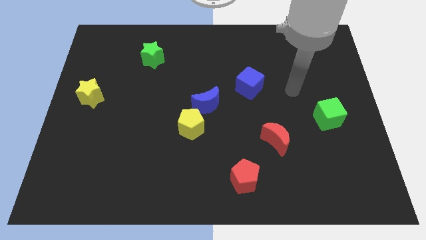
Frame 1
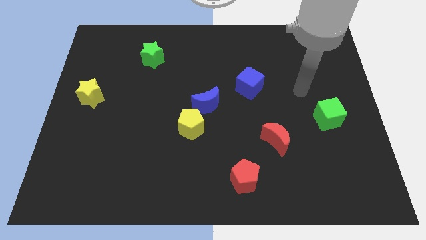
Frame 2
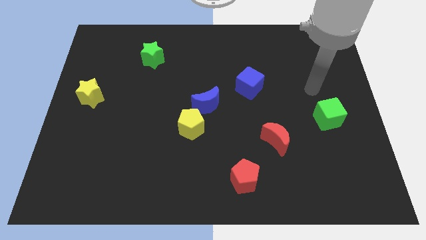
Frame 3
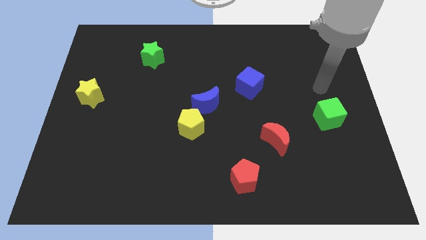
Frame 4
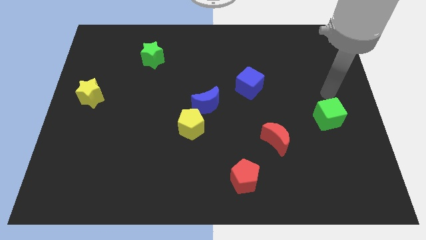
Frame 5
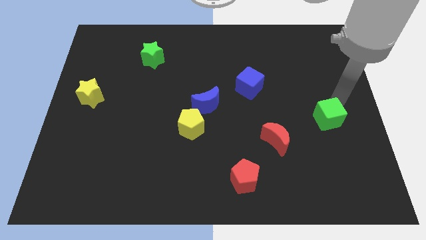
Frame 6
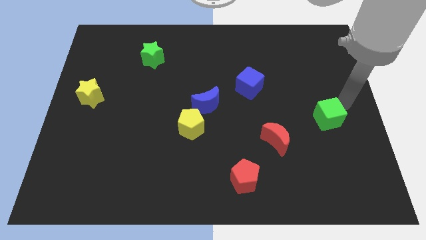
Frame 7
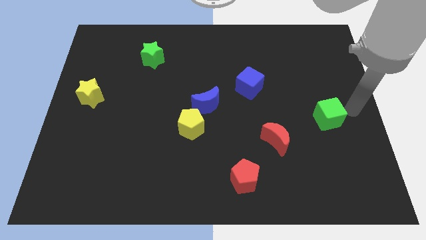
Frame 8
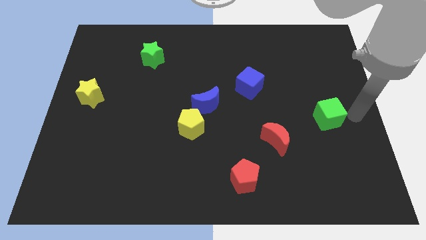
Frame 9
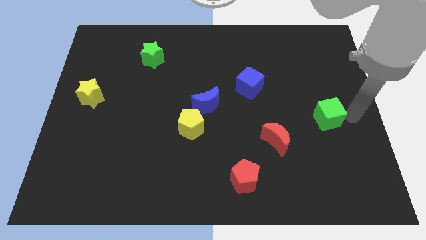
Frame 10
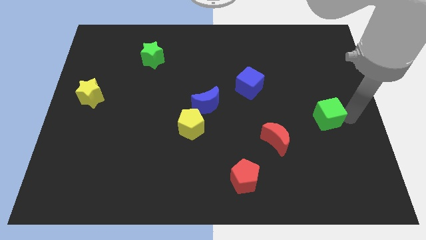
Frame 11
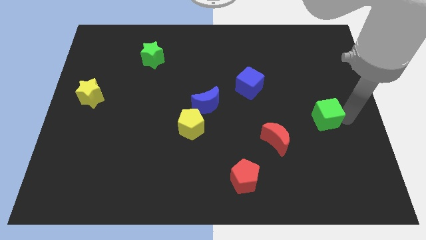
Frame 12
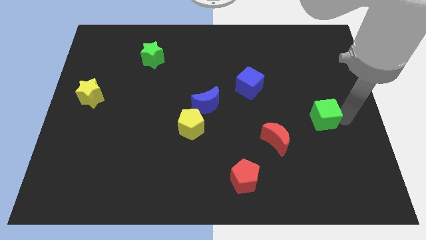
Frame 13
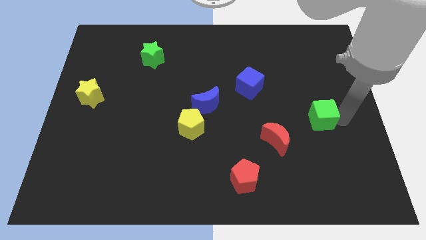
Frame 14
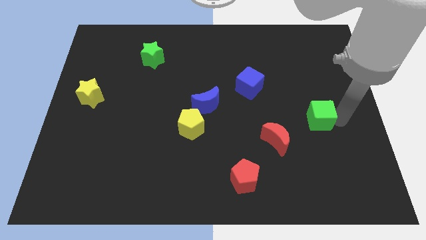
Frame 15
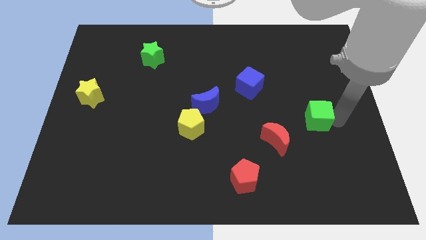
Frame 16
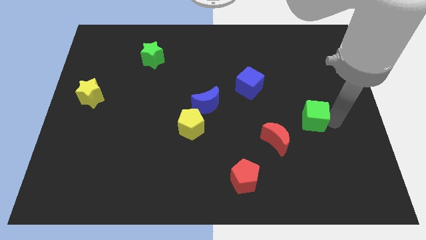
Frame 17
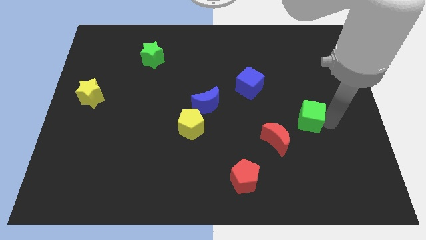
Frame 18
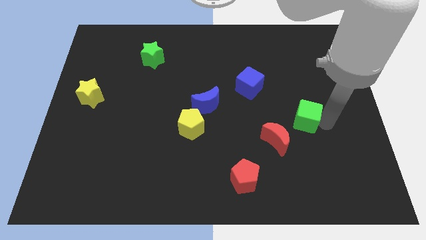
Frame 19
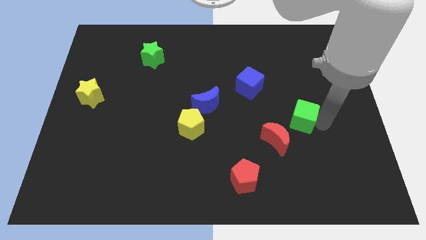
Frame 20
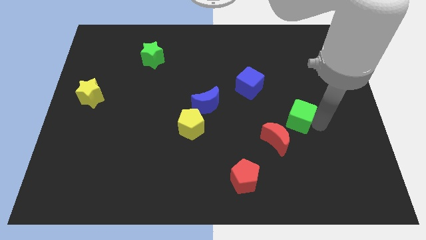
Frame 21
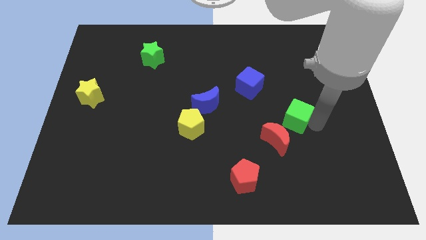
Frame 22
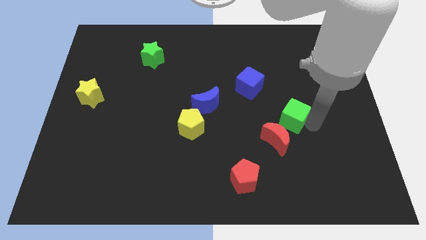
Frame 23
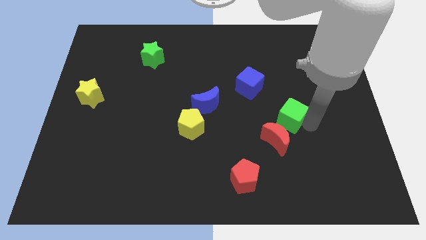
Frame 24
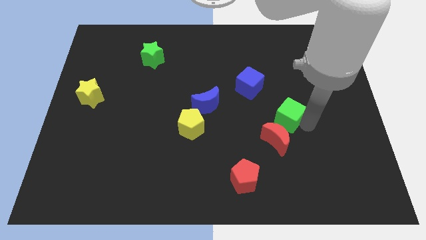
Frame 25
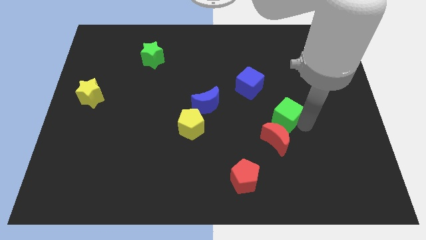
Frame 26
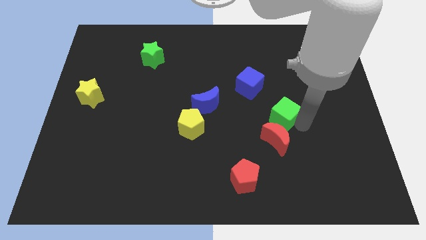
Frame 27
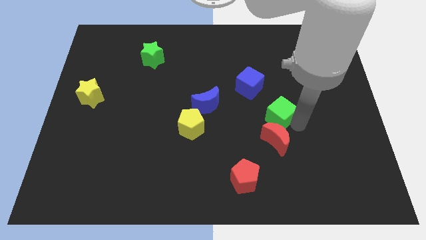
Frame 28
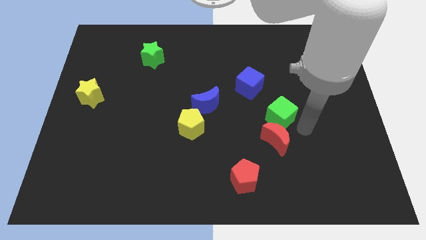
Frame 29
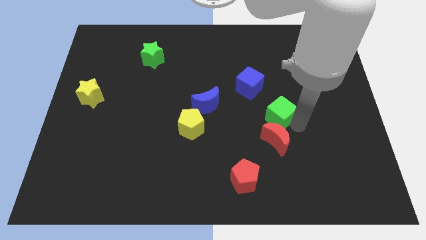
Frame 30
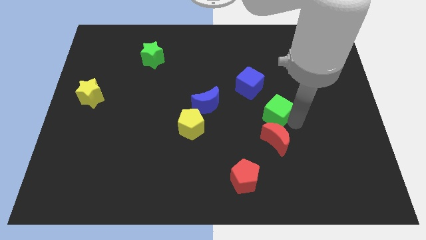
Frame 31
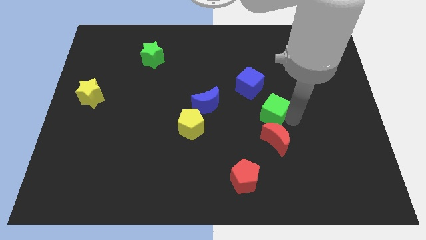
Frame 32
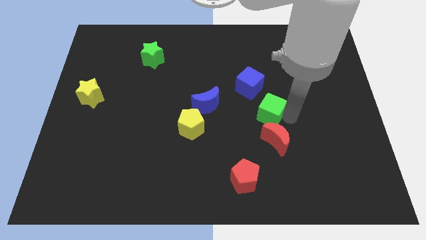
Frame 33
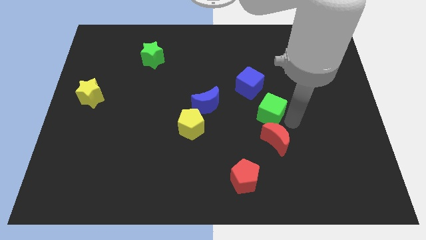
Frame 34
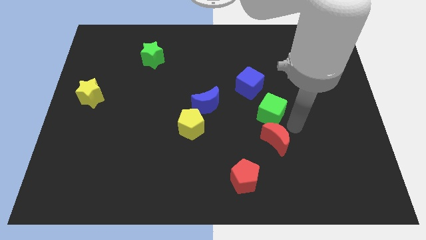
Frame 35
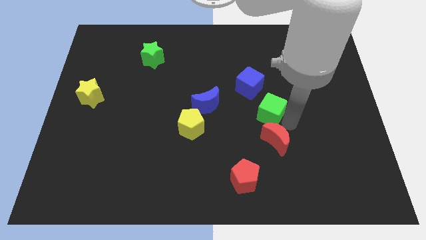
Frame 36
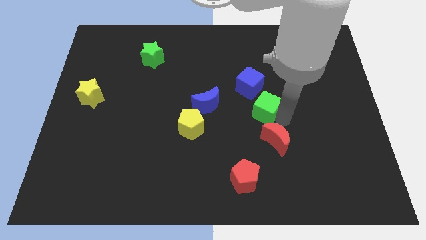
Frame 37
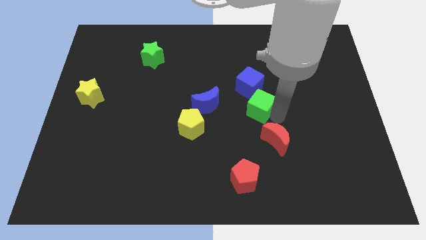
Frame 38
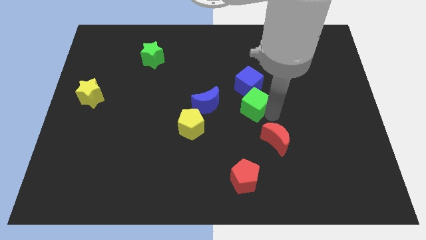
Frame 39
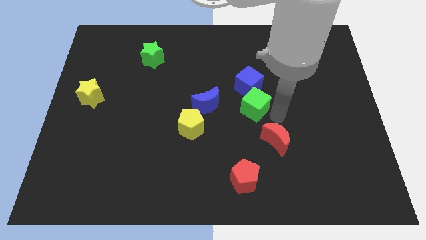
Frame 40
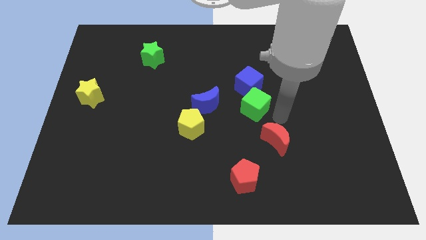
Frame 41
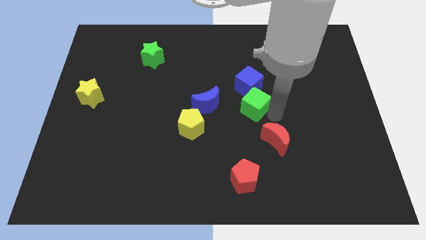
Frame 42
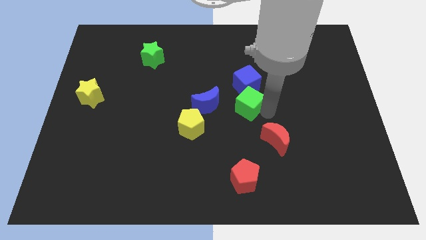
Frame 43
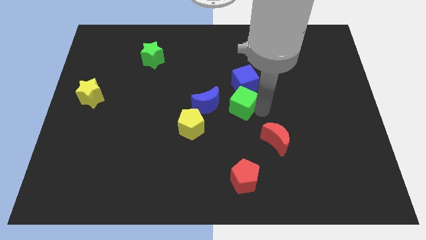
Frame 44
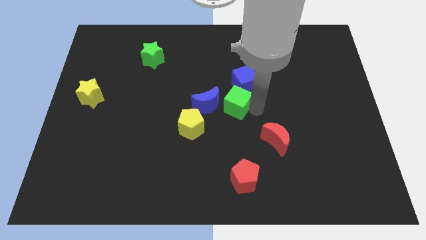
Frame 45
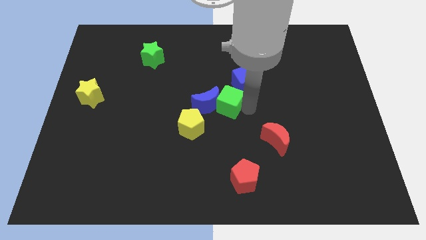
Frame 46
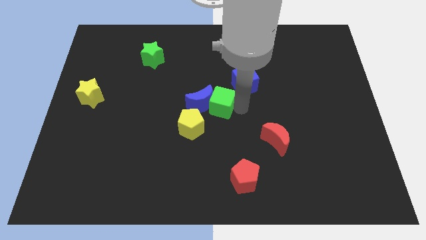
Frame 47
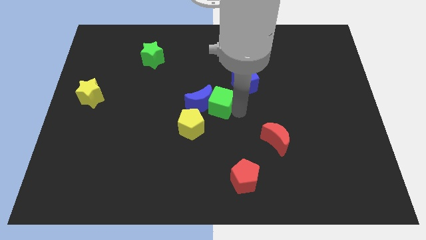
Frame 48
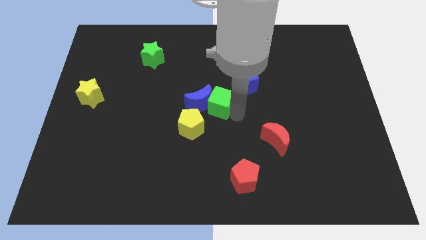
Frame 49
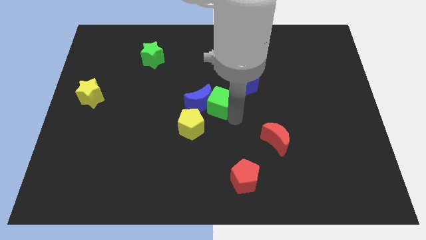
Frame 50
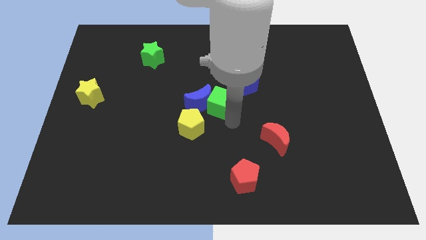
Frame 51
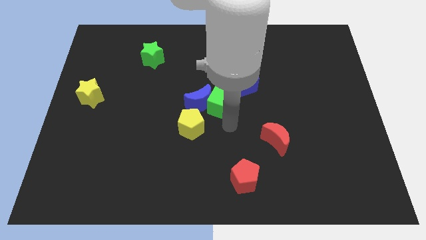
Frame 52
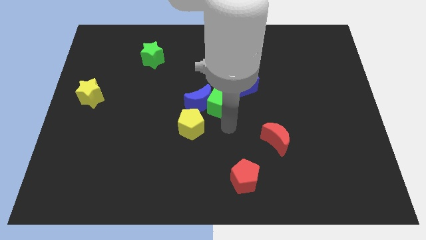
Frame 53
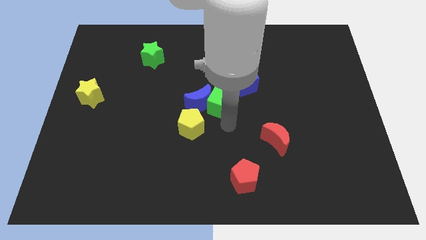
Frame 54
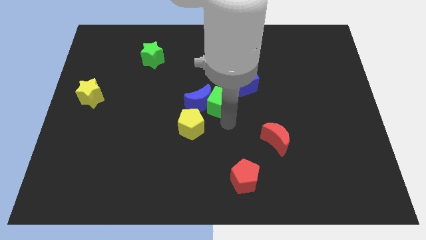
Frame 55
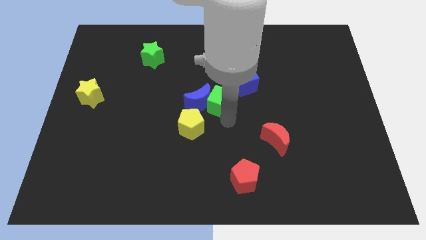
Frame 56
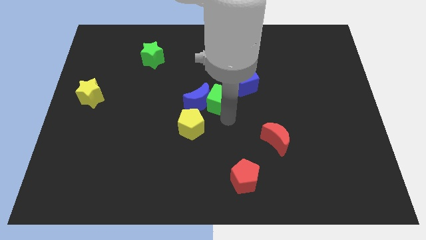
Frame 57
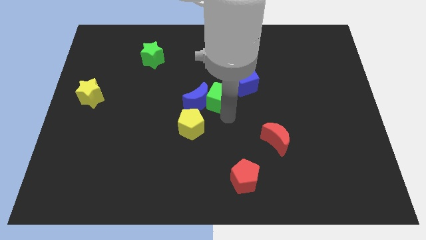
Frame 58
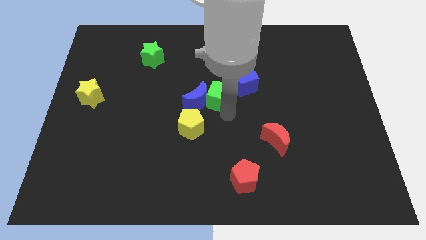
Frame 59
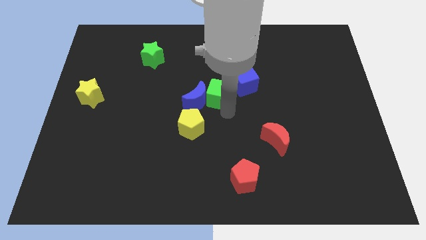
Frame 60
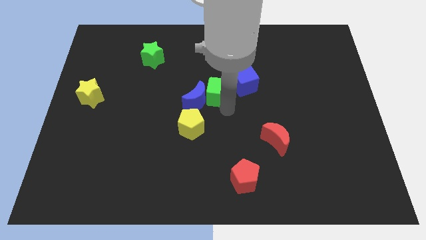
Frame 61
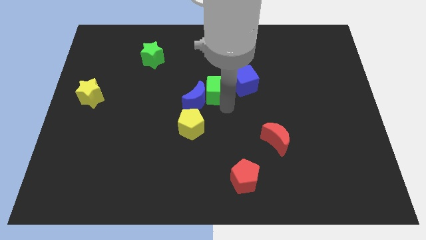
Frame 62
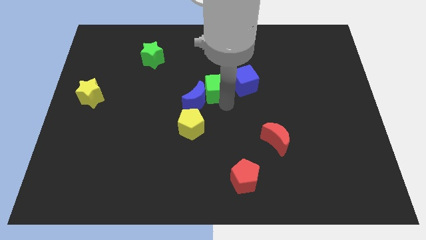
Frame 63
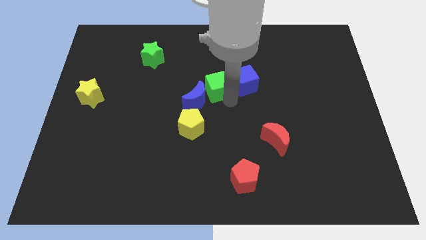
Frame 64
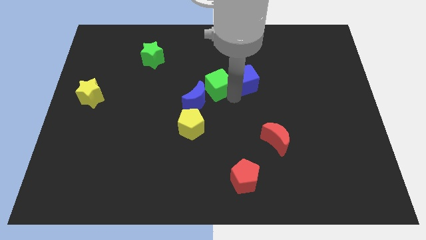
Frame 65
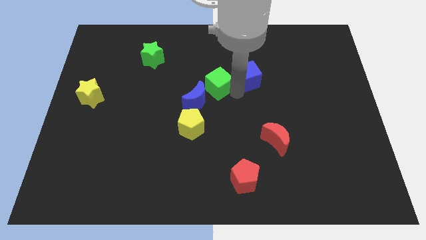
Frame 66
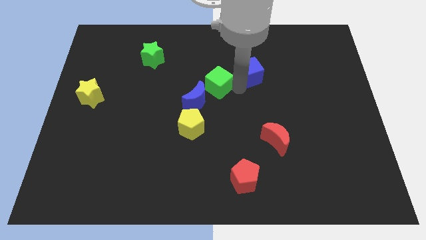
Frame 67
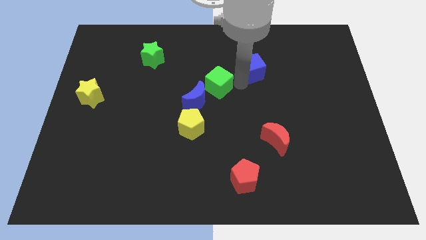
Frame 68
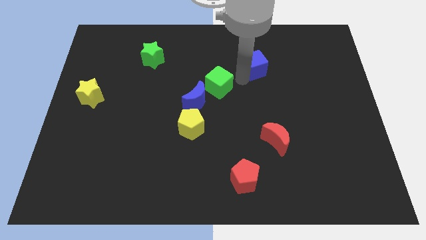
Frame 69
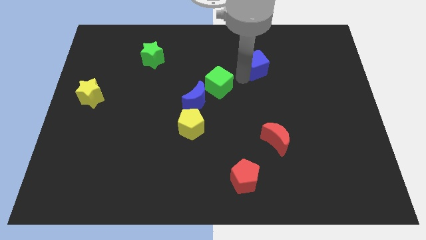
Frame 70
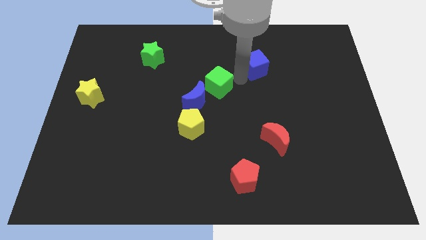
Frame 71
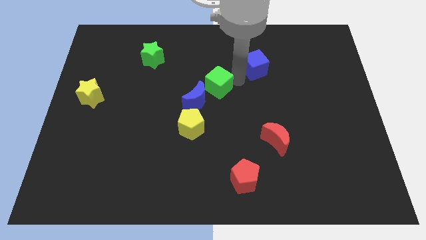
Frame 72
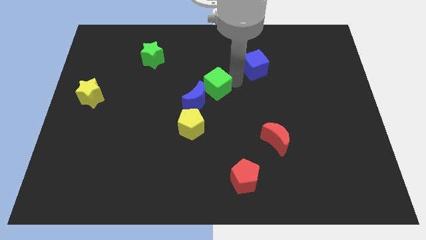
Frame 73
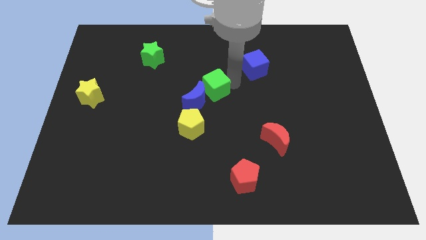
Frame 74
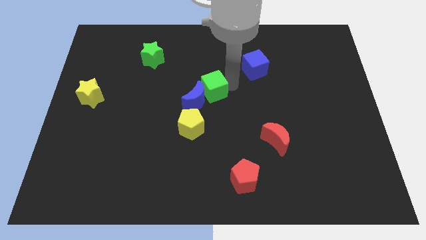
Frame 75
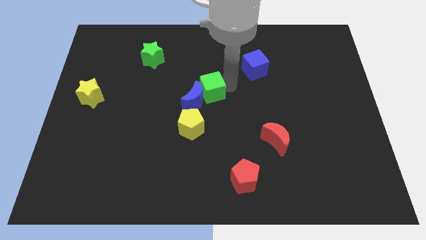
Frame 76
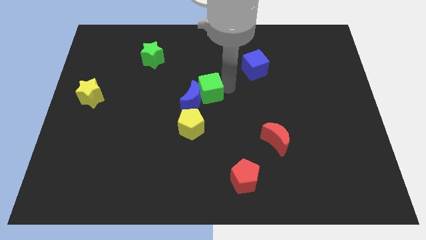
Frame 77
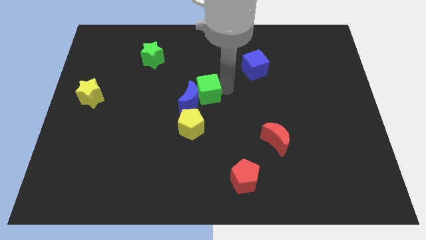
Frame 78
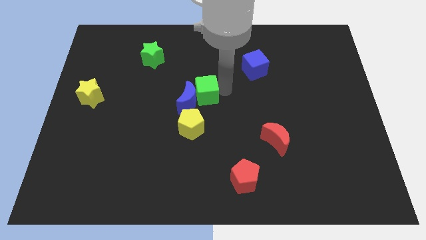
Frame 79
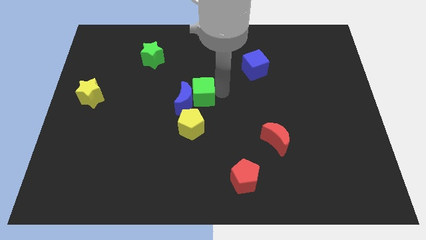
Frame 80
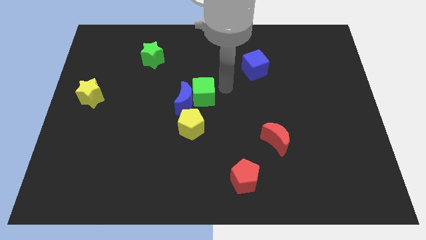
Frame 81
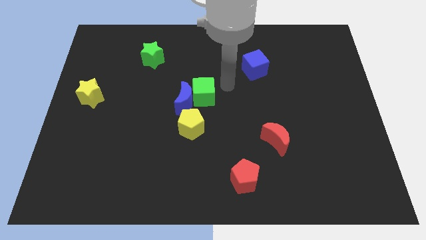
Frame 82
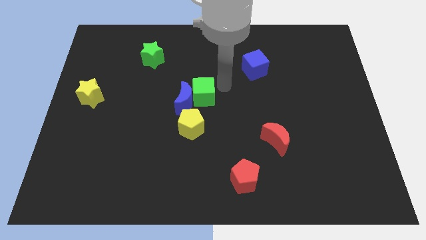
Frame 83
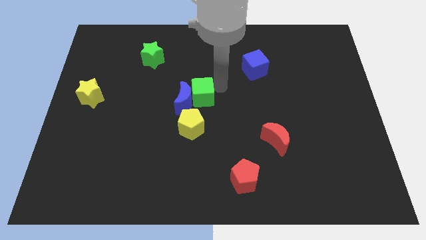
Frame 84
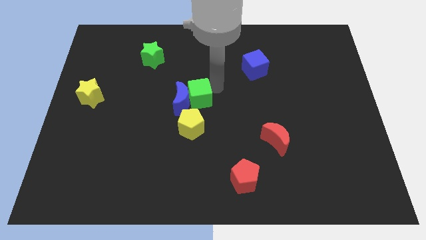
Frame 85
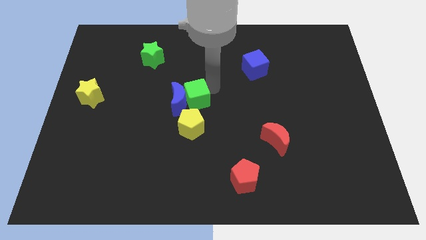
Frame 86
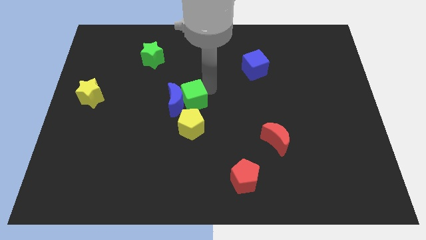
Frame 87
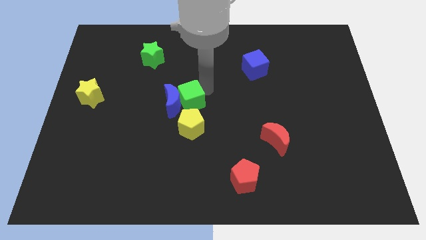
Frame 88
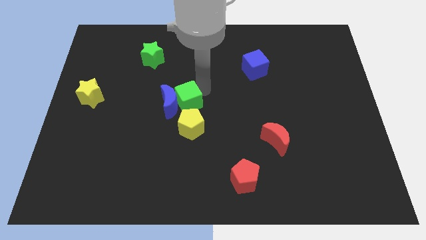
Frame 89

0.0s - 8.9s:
put the green cube to the top left side of the yellow pentagon
